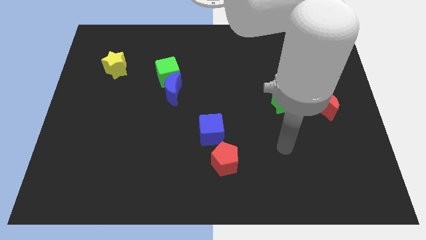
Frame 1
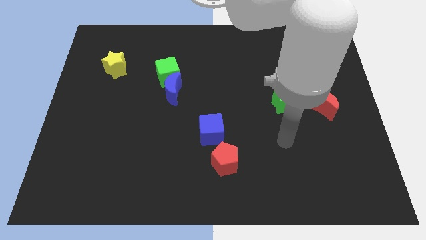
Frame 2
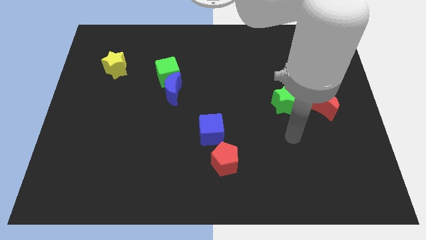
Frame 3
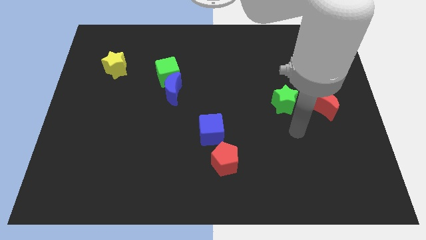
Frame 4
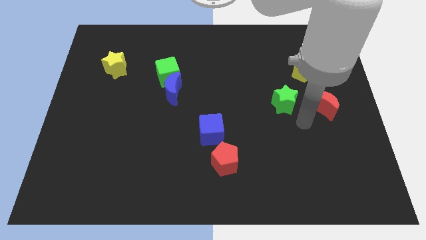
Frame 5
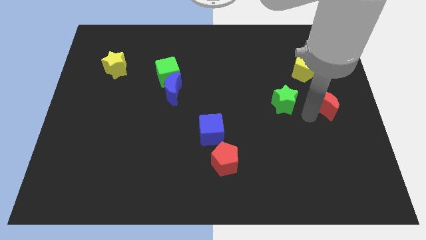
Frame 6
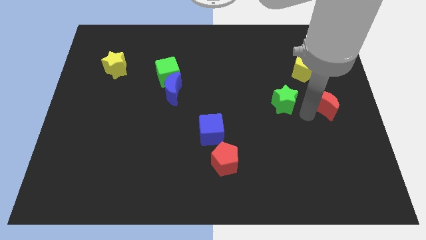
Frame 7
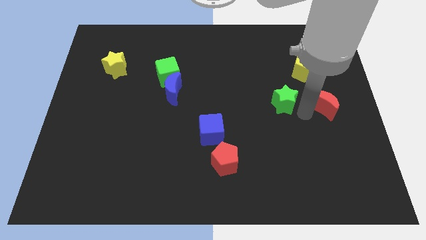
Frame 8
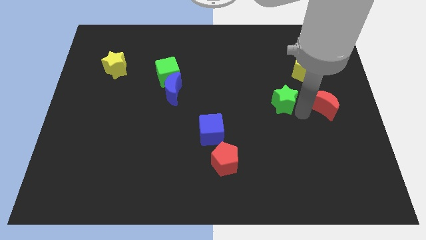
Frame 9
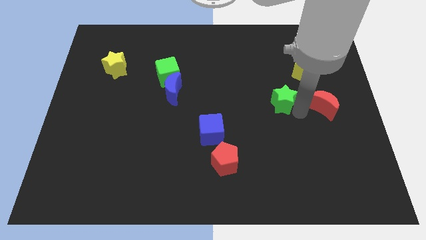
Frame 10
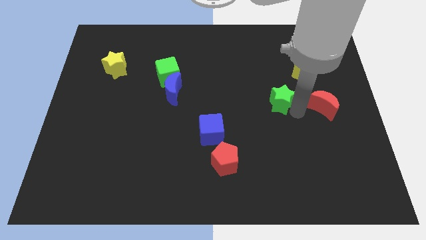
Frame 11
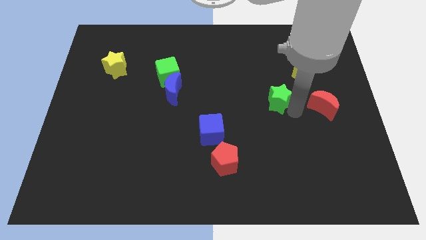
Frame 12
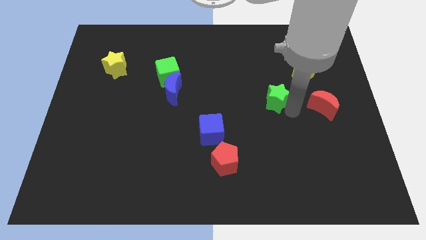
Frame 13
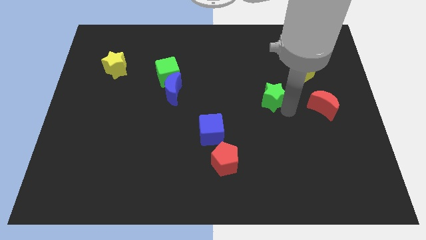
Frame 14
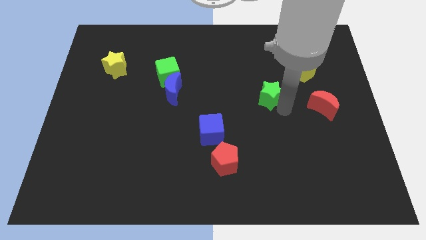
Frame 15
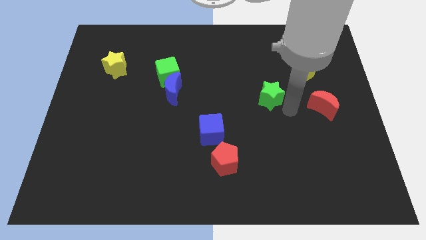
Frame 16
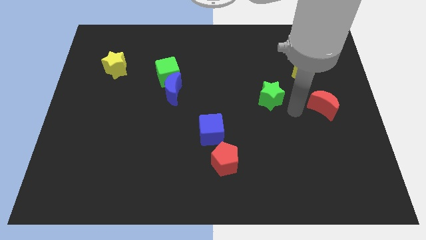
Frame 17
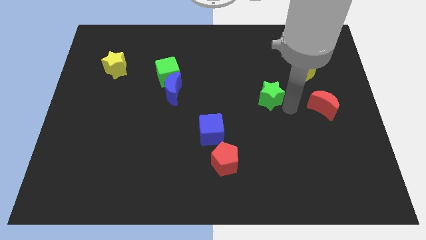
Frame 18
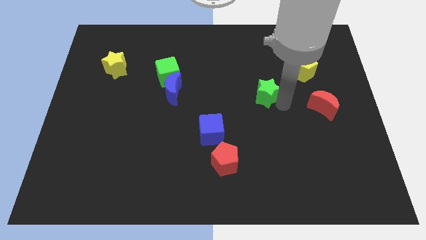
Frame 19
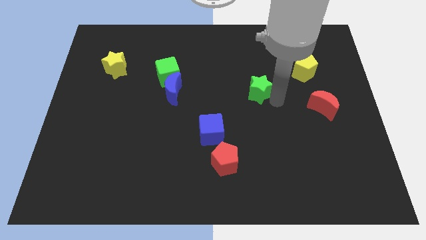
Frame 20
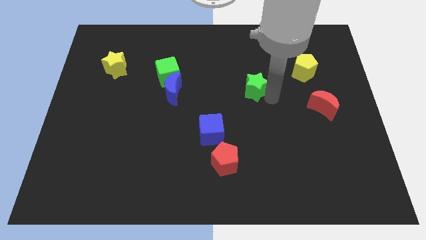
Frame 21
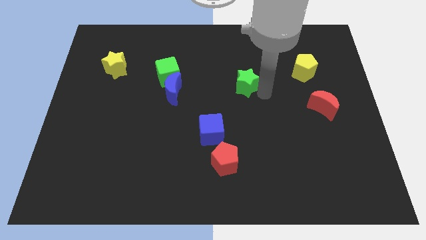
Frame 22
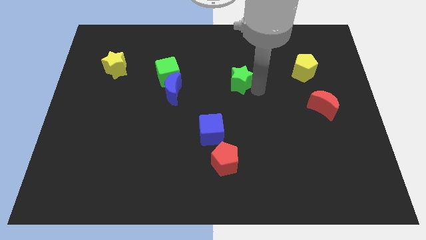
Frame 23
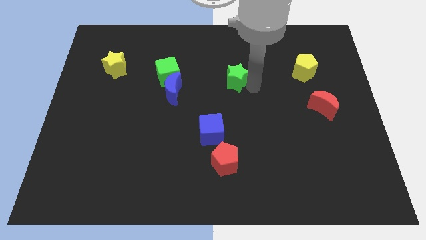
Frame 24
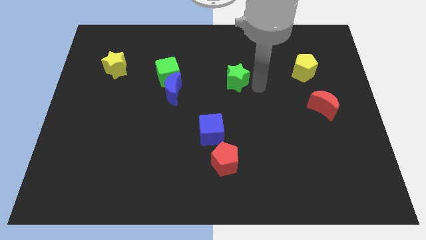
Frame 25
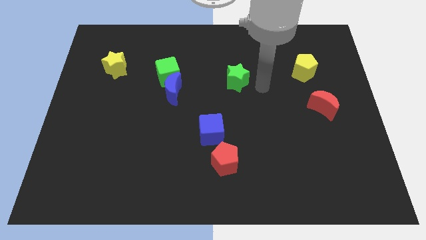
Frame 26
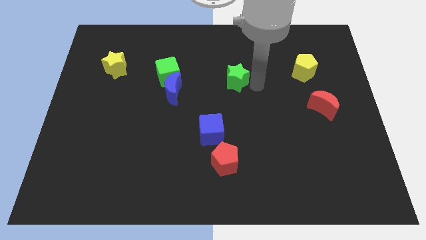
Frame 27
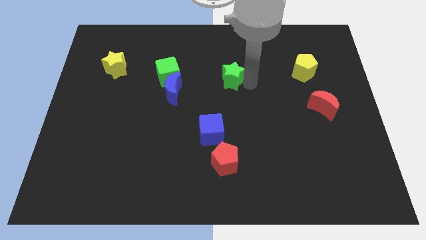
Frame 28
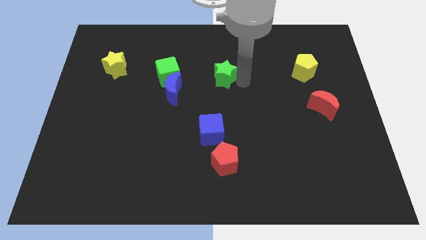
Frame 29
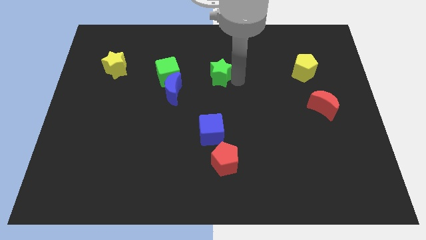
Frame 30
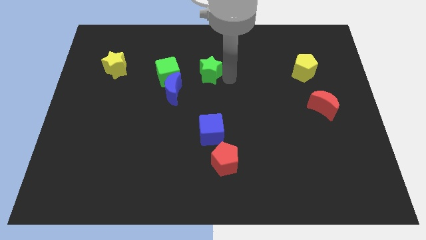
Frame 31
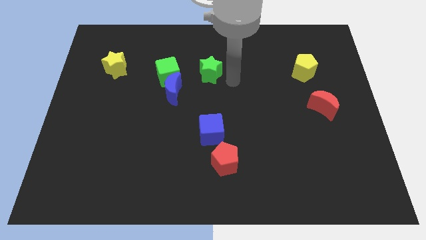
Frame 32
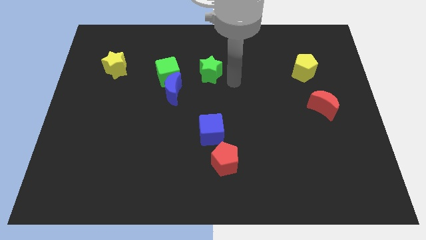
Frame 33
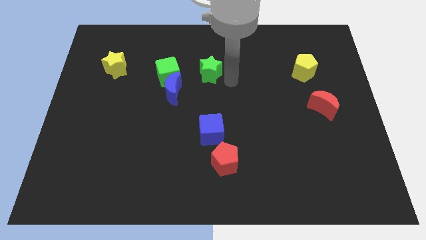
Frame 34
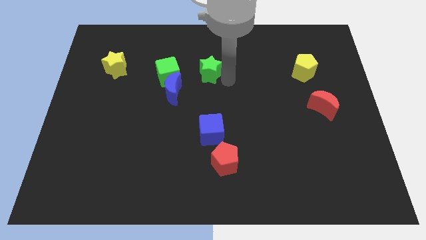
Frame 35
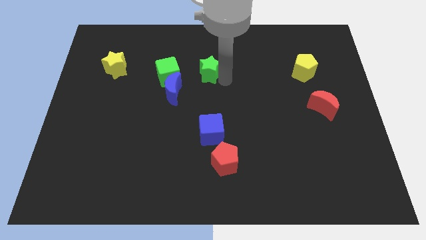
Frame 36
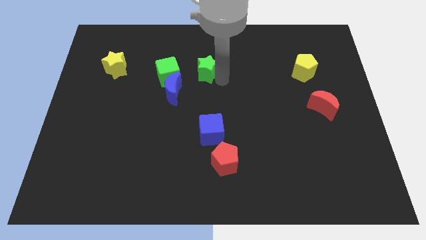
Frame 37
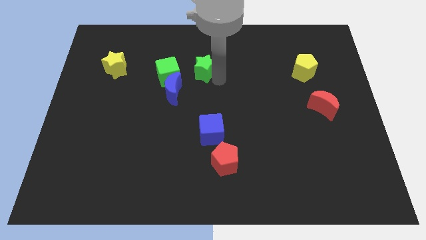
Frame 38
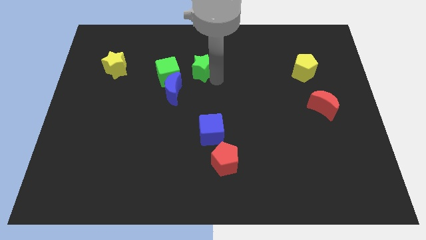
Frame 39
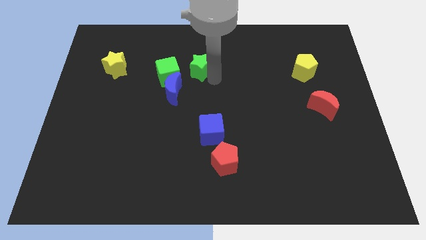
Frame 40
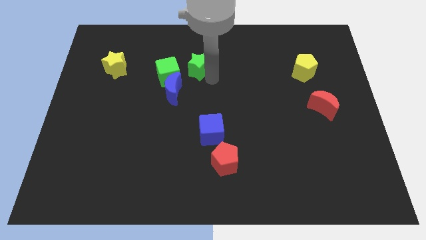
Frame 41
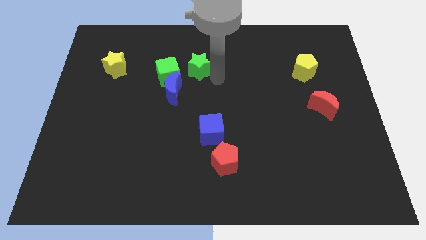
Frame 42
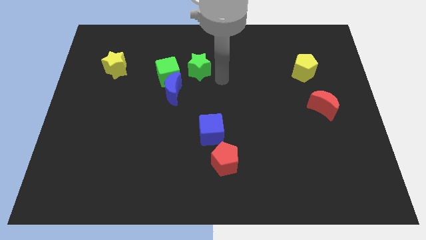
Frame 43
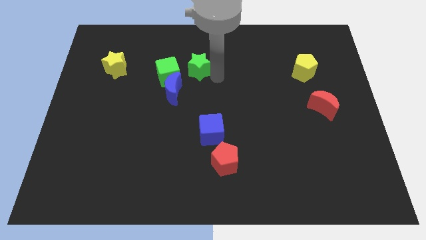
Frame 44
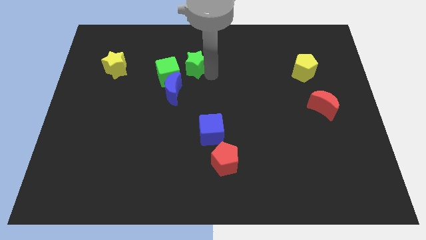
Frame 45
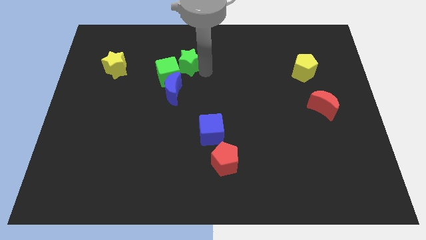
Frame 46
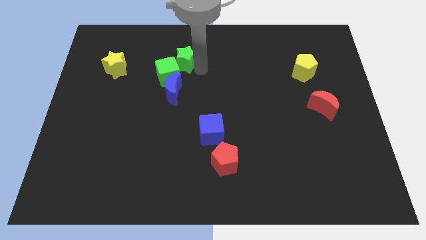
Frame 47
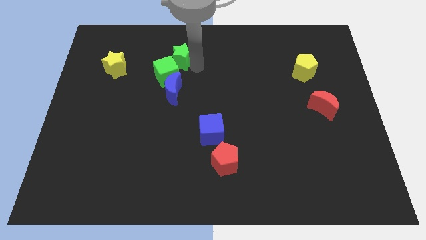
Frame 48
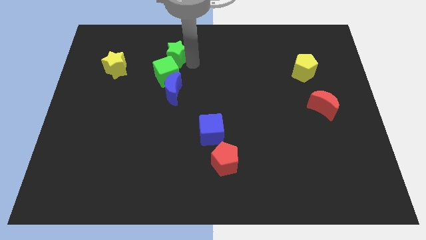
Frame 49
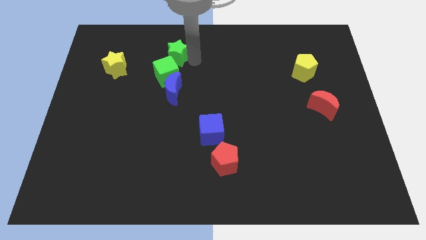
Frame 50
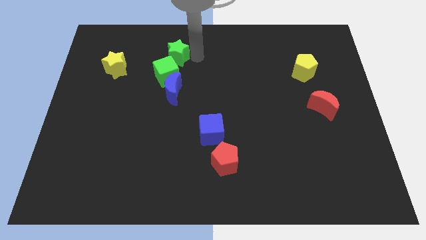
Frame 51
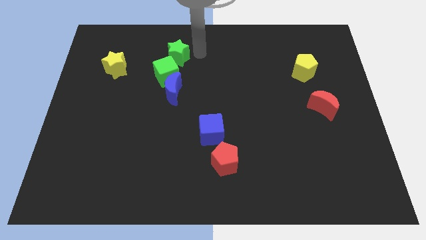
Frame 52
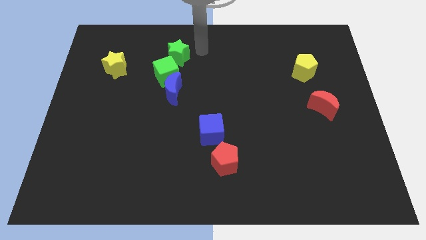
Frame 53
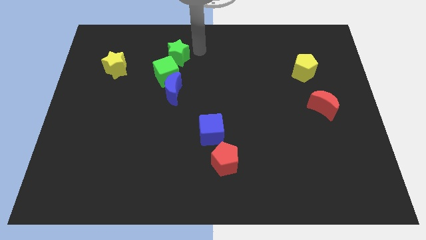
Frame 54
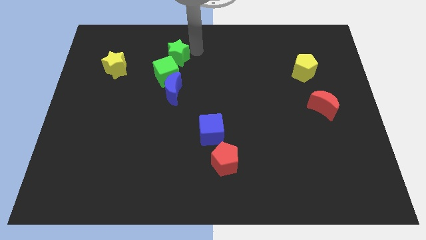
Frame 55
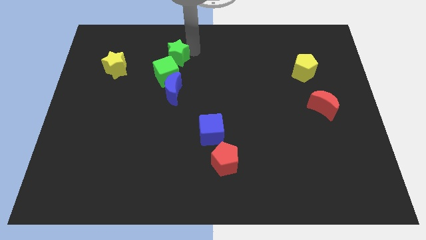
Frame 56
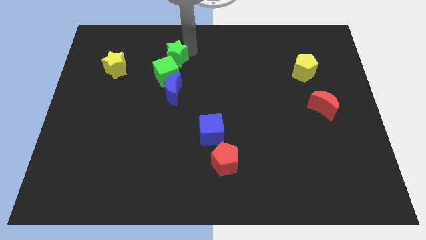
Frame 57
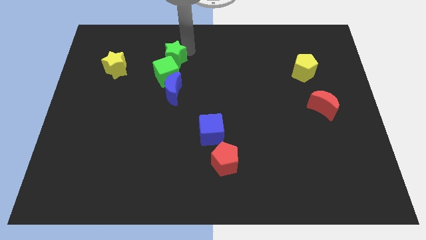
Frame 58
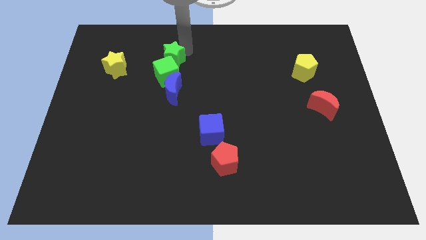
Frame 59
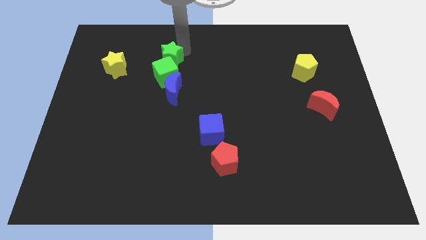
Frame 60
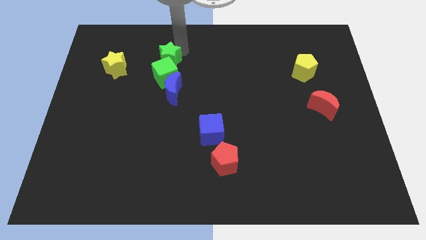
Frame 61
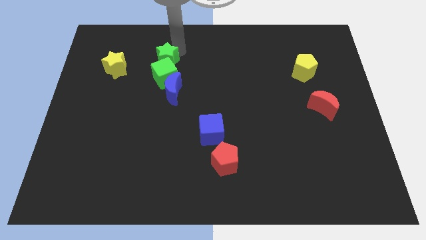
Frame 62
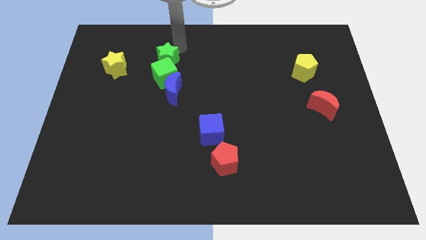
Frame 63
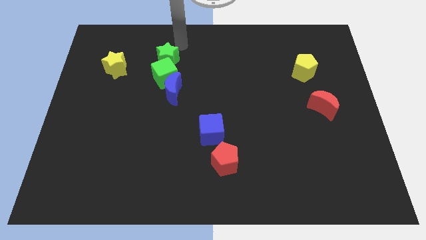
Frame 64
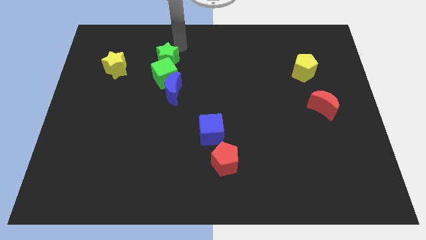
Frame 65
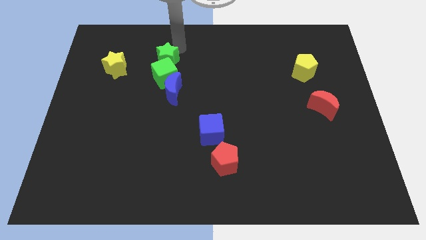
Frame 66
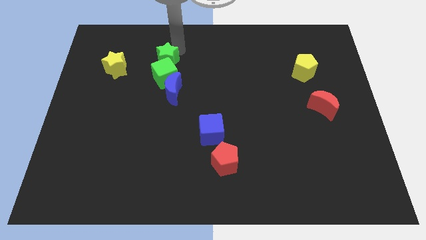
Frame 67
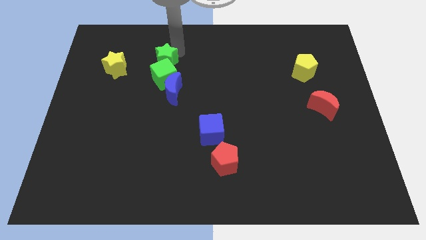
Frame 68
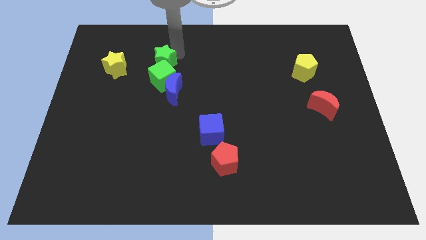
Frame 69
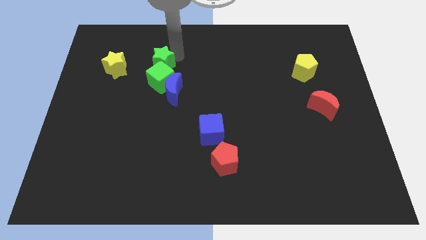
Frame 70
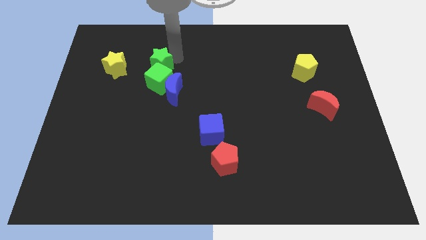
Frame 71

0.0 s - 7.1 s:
push the green star to the top left side of the blue moon
